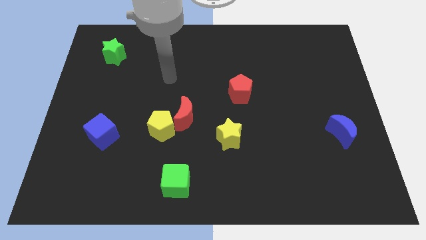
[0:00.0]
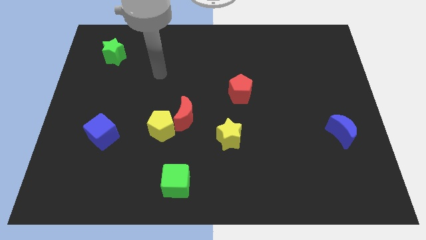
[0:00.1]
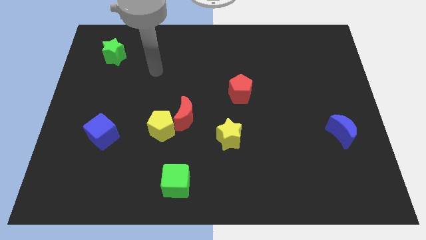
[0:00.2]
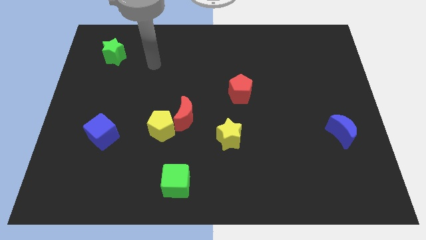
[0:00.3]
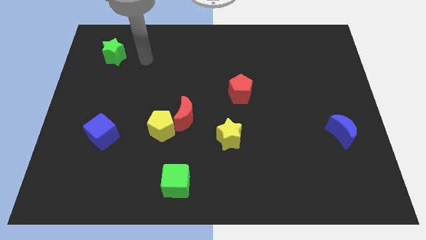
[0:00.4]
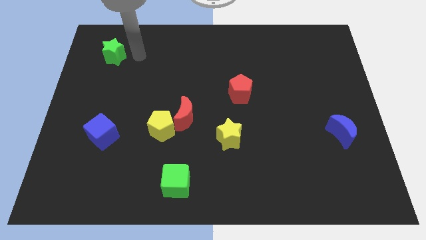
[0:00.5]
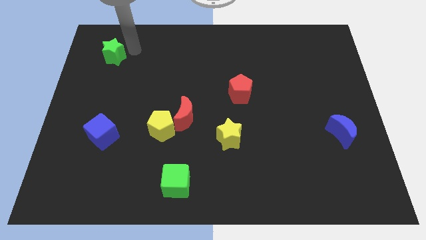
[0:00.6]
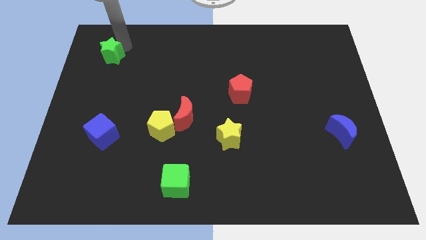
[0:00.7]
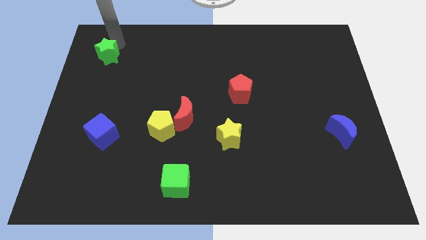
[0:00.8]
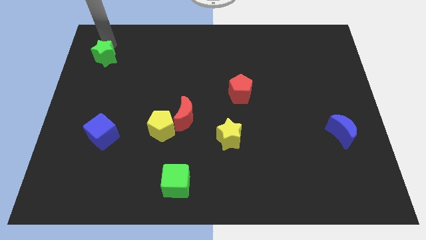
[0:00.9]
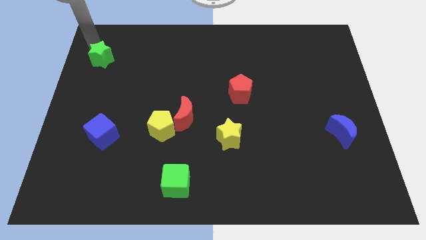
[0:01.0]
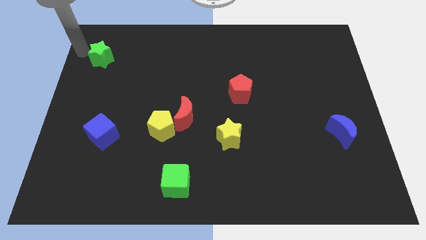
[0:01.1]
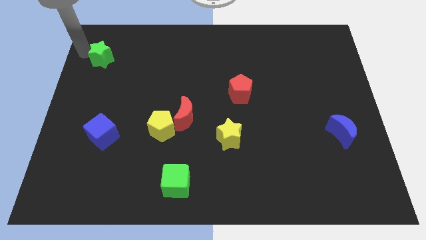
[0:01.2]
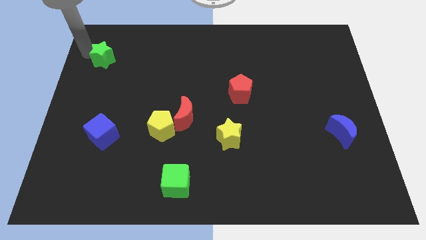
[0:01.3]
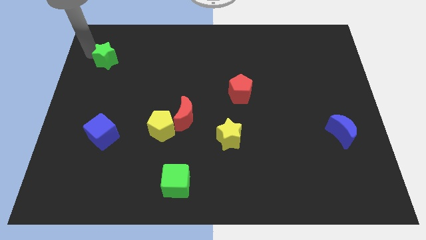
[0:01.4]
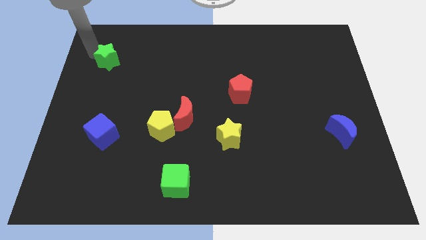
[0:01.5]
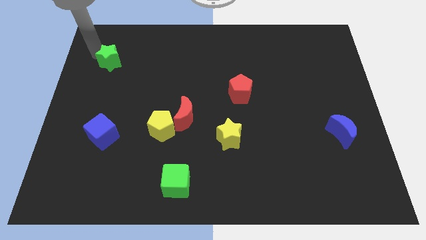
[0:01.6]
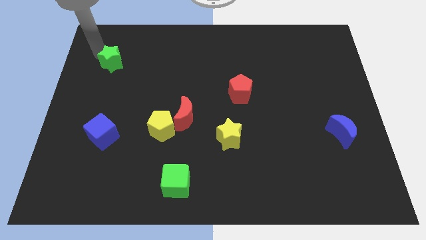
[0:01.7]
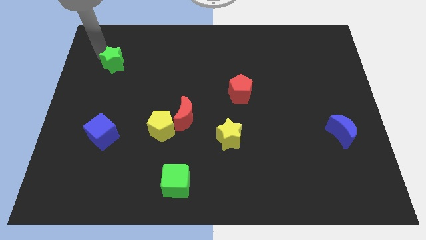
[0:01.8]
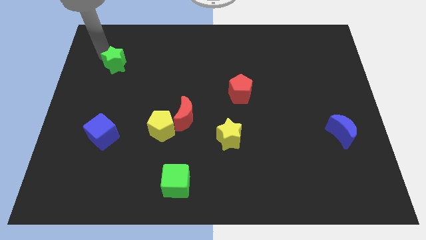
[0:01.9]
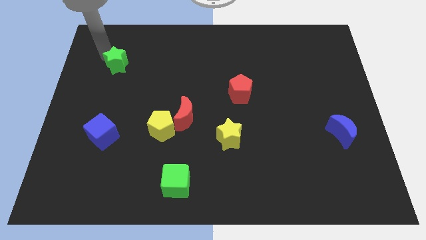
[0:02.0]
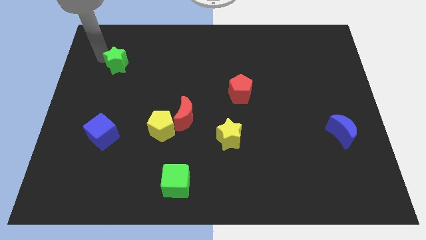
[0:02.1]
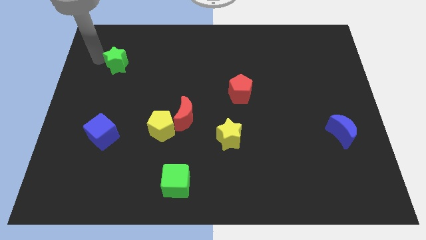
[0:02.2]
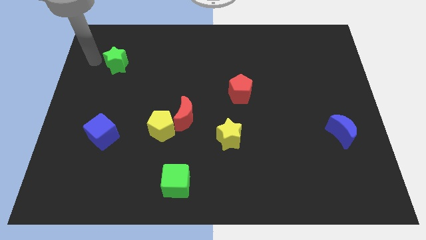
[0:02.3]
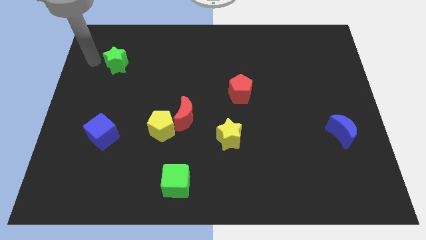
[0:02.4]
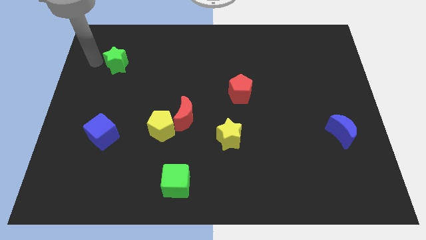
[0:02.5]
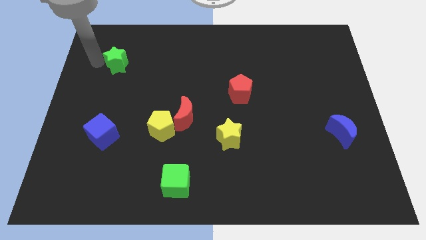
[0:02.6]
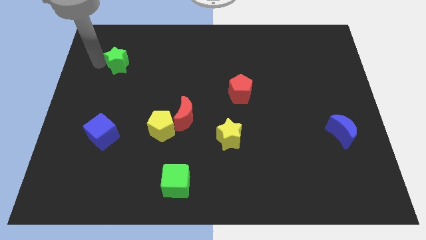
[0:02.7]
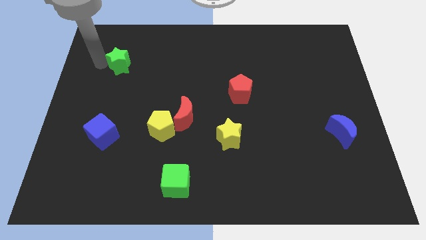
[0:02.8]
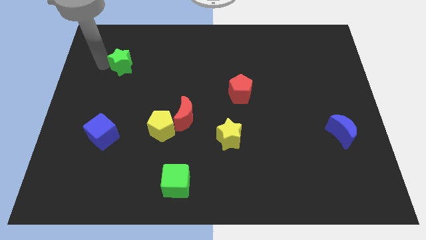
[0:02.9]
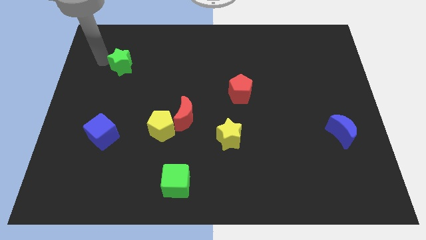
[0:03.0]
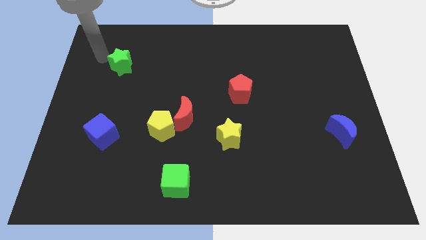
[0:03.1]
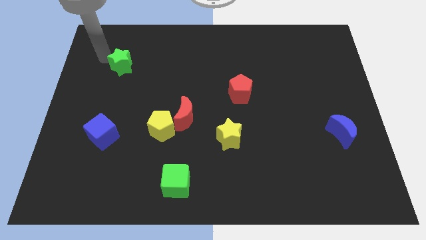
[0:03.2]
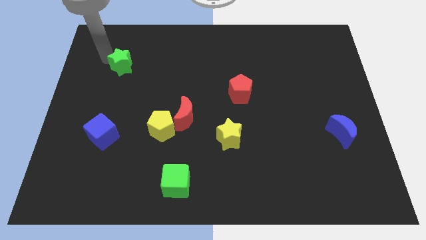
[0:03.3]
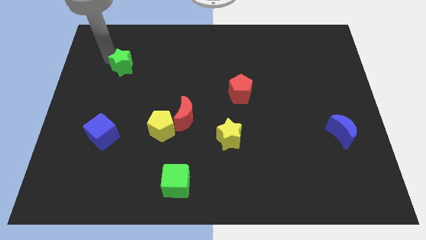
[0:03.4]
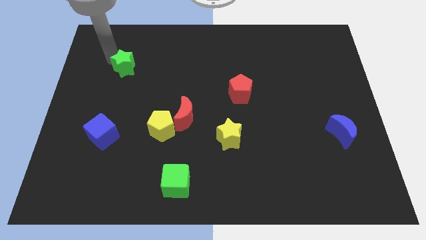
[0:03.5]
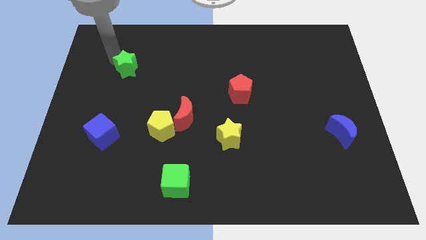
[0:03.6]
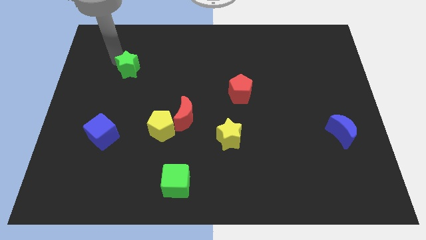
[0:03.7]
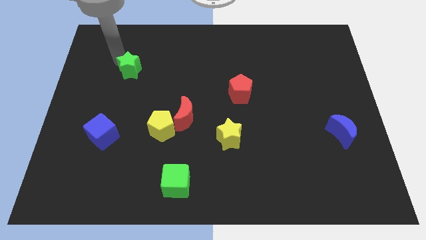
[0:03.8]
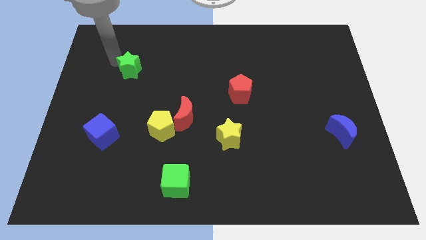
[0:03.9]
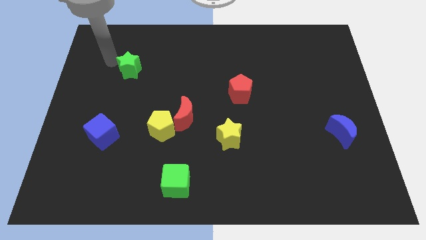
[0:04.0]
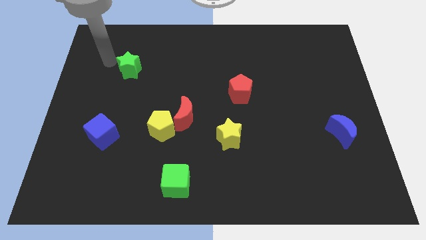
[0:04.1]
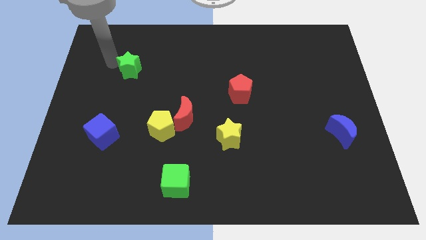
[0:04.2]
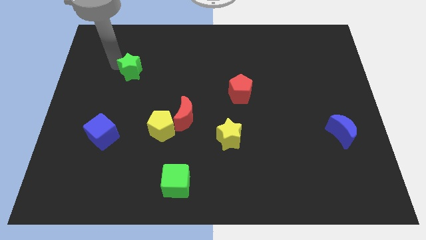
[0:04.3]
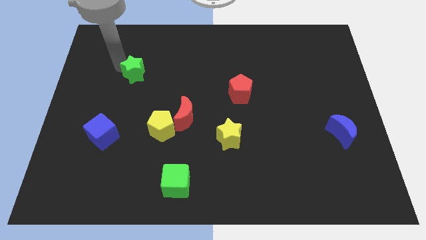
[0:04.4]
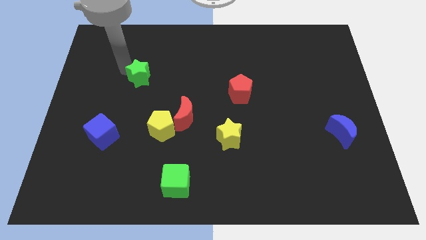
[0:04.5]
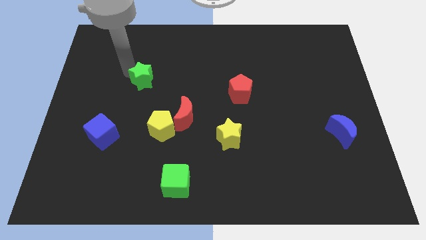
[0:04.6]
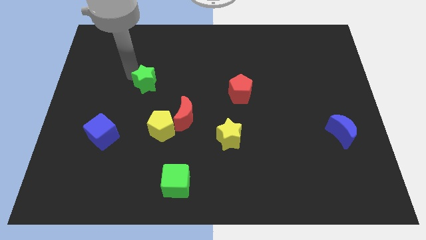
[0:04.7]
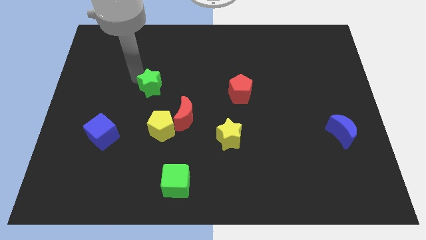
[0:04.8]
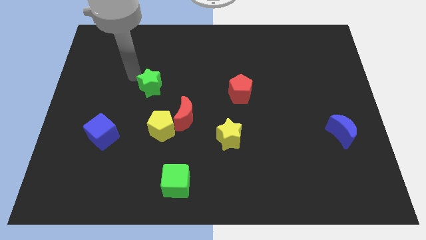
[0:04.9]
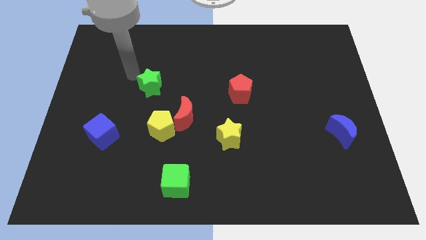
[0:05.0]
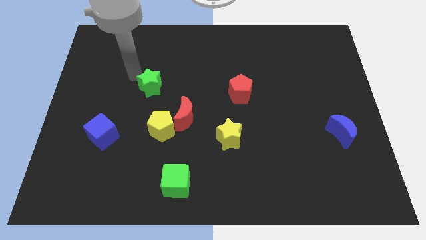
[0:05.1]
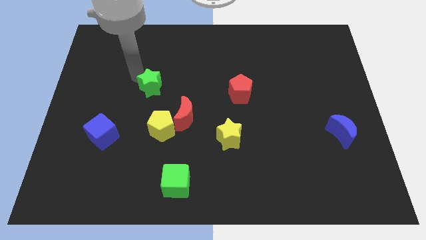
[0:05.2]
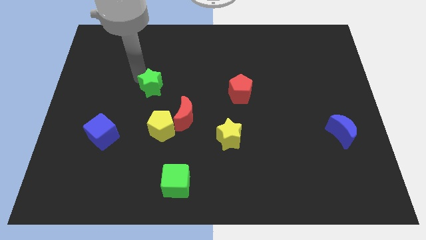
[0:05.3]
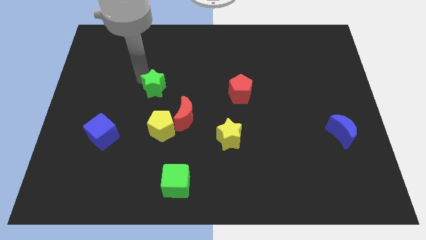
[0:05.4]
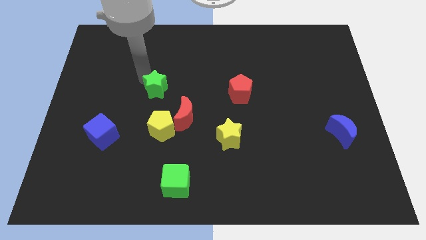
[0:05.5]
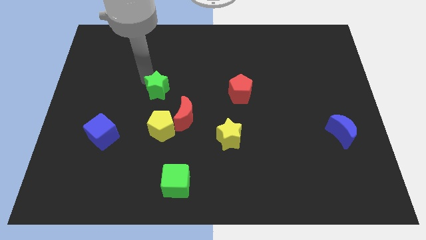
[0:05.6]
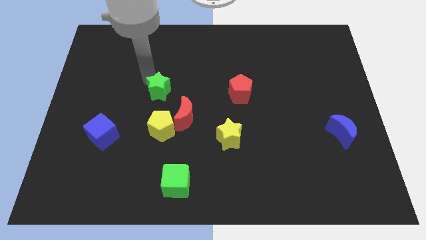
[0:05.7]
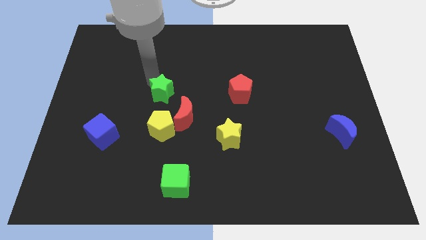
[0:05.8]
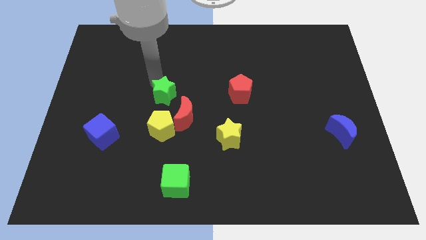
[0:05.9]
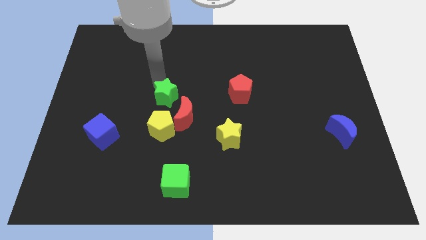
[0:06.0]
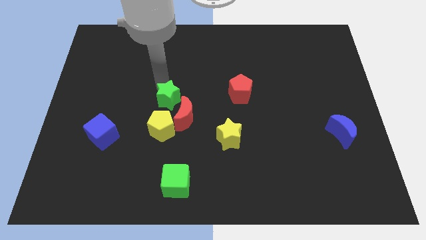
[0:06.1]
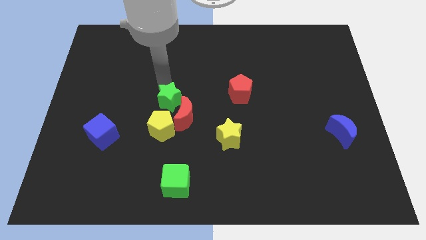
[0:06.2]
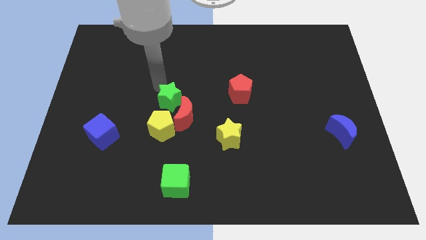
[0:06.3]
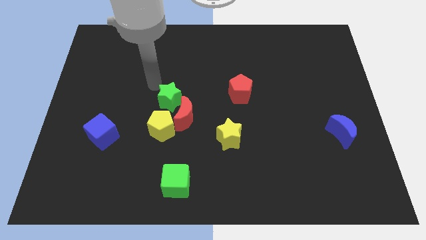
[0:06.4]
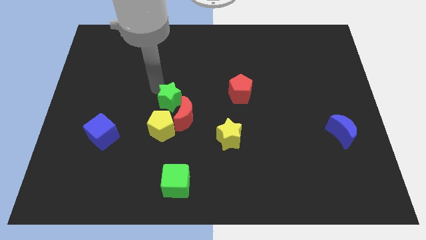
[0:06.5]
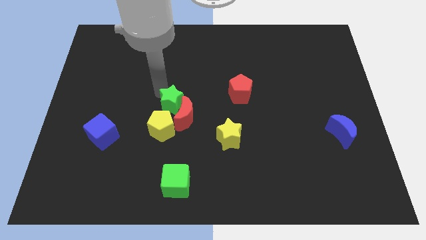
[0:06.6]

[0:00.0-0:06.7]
slide the green star next to the red moon

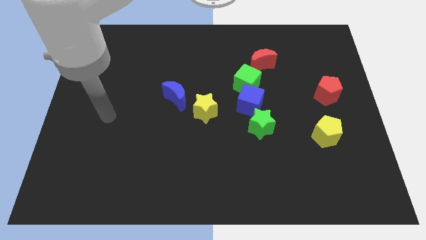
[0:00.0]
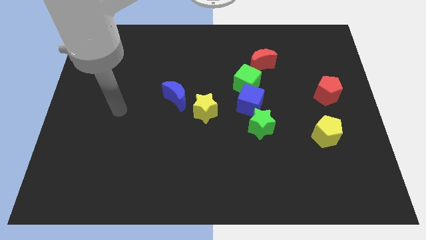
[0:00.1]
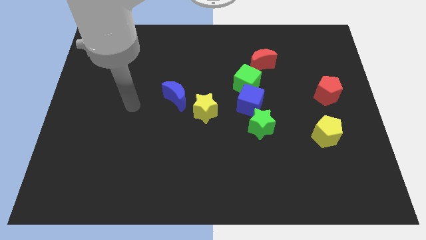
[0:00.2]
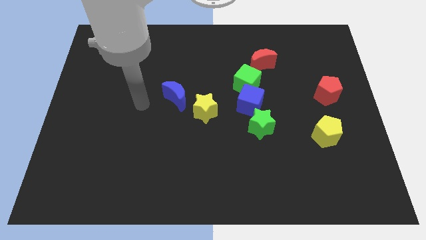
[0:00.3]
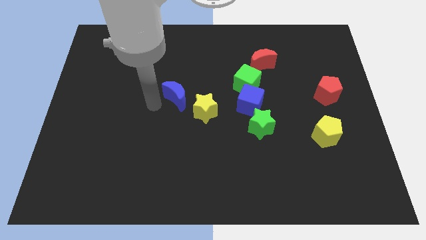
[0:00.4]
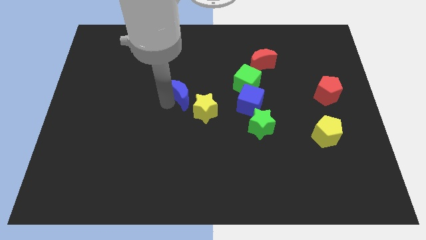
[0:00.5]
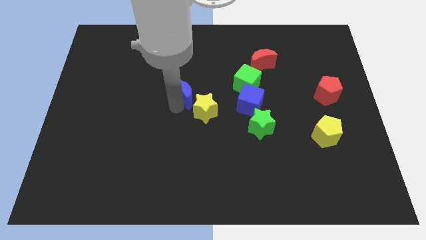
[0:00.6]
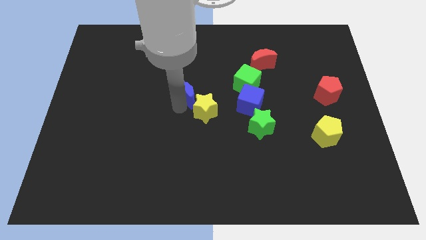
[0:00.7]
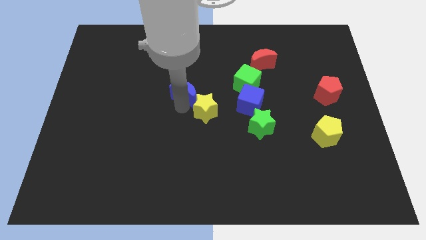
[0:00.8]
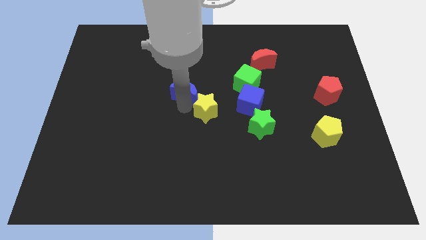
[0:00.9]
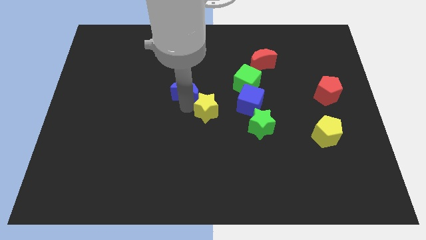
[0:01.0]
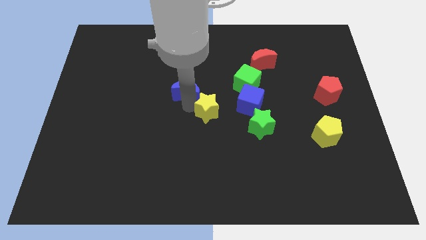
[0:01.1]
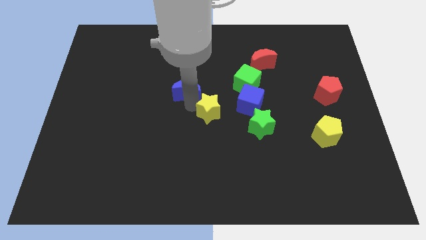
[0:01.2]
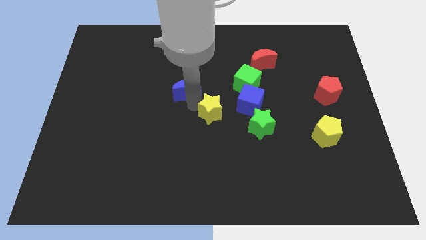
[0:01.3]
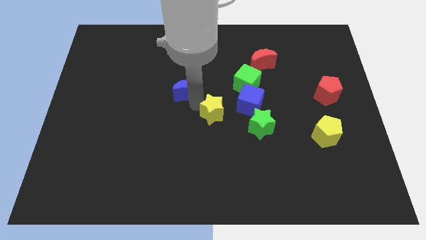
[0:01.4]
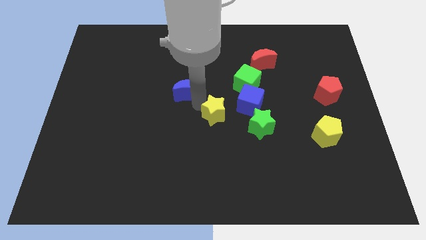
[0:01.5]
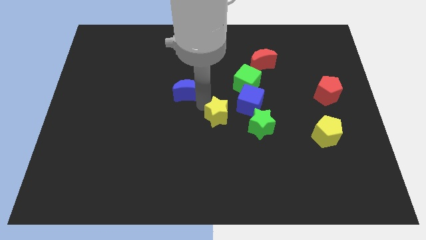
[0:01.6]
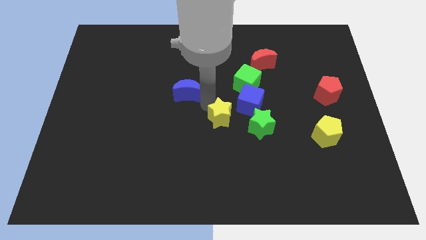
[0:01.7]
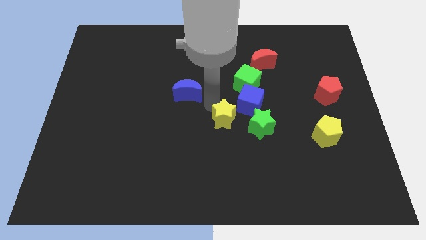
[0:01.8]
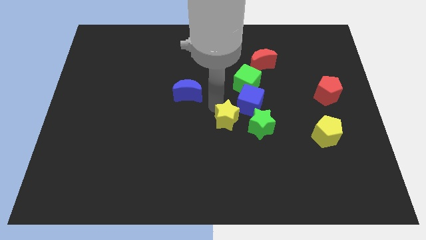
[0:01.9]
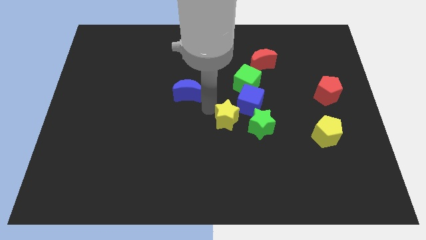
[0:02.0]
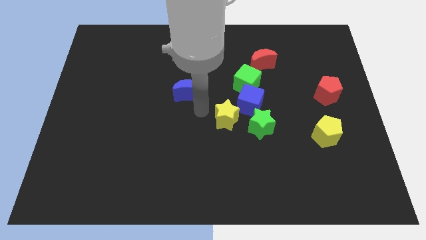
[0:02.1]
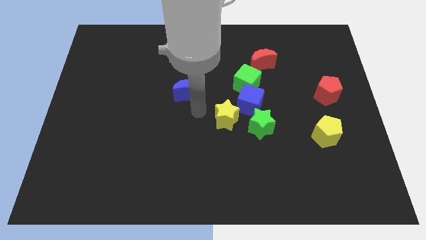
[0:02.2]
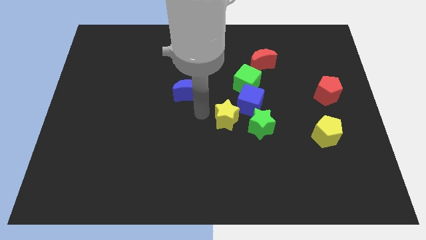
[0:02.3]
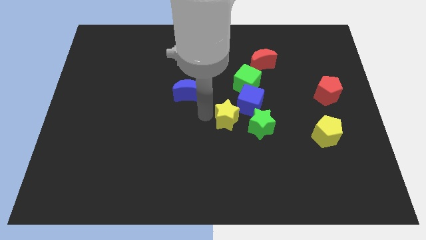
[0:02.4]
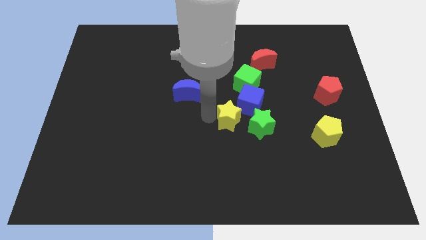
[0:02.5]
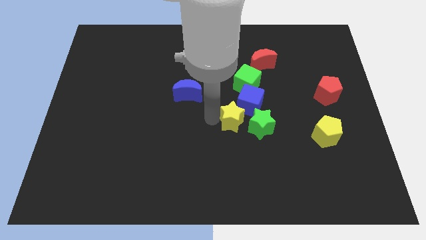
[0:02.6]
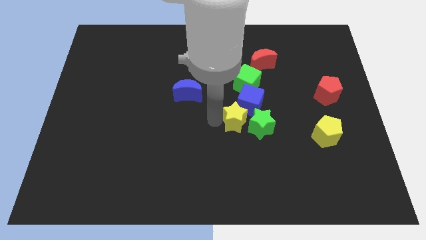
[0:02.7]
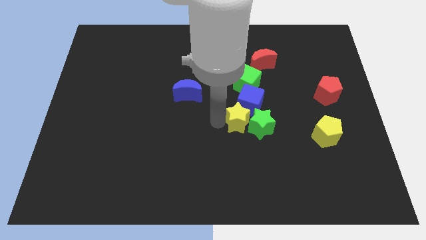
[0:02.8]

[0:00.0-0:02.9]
slide the yellow star close to the green star
